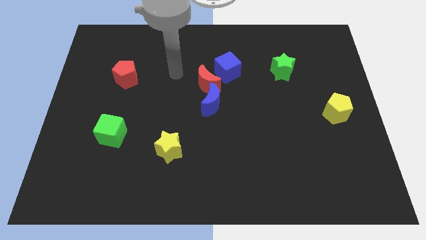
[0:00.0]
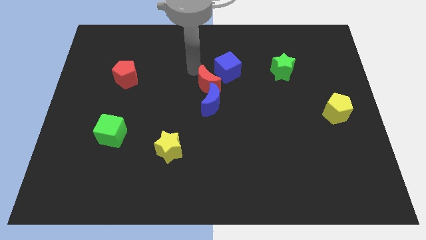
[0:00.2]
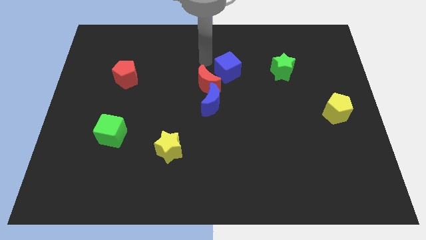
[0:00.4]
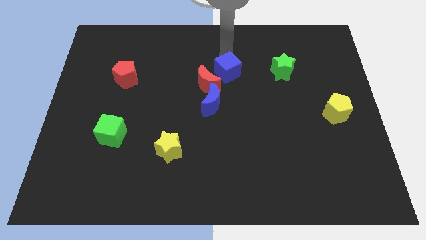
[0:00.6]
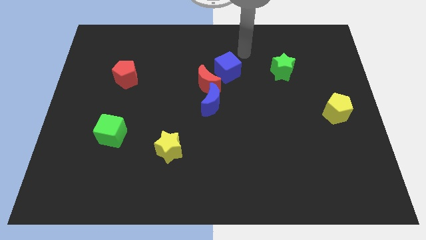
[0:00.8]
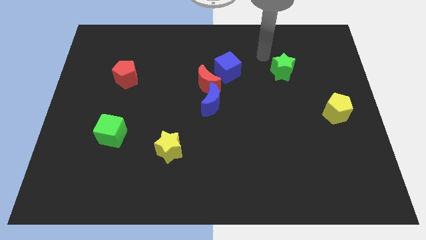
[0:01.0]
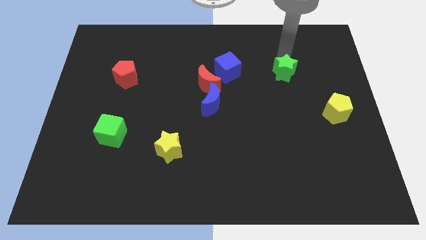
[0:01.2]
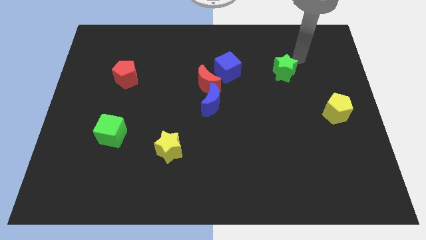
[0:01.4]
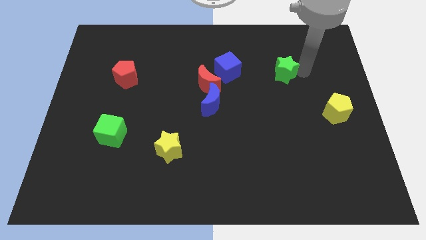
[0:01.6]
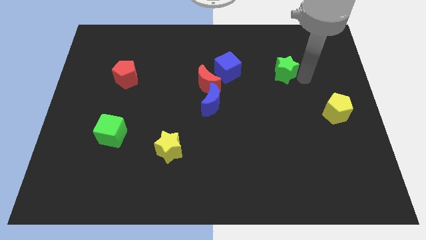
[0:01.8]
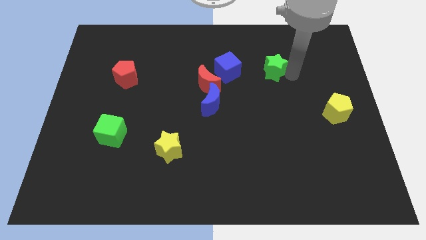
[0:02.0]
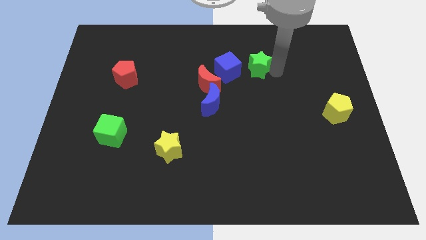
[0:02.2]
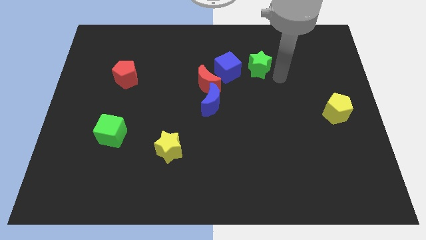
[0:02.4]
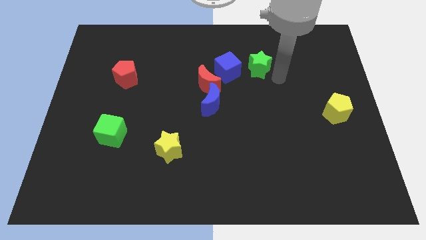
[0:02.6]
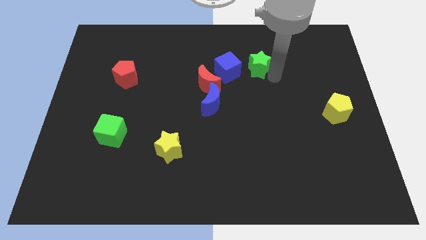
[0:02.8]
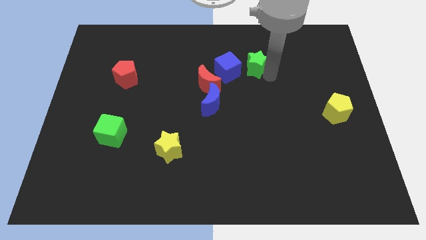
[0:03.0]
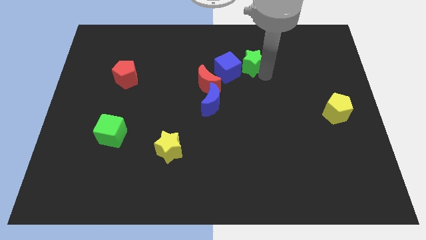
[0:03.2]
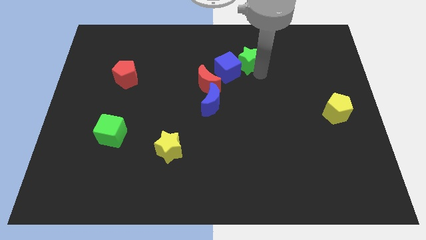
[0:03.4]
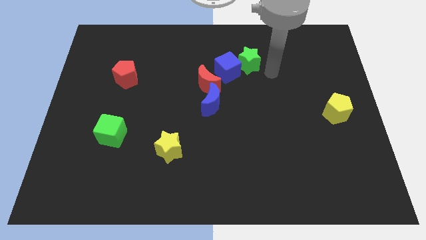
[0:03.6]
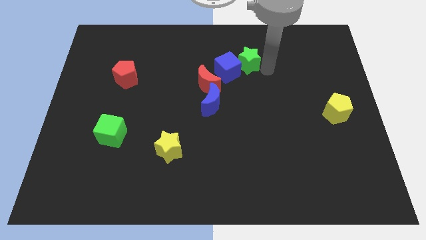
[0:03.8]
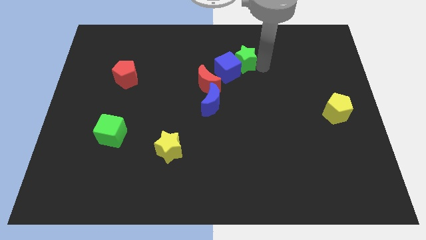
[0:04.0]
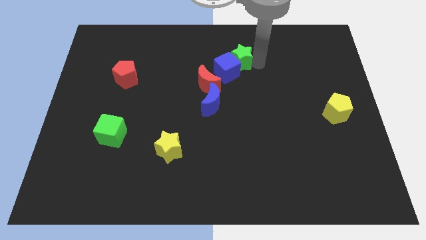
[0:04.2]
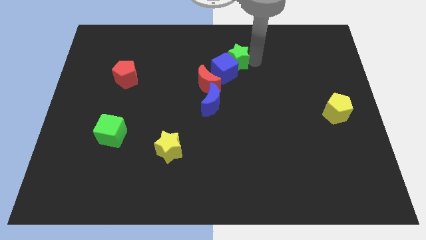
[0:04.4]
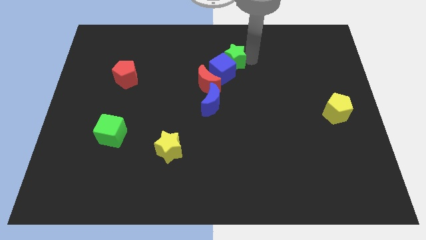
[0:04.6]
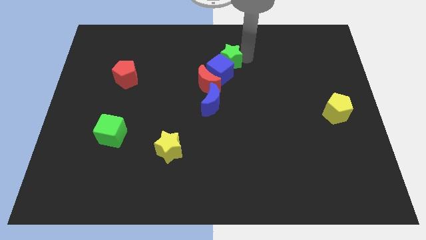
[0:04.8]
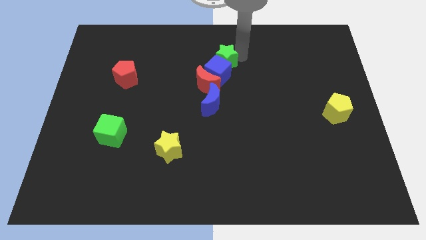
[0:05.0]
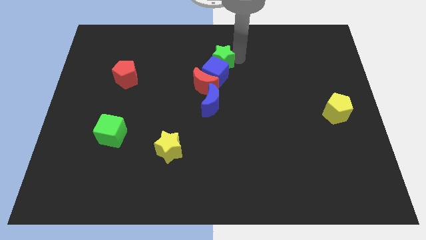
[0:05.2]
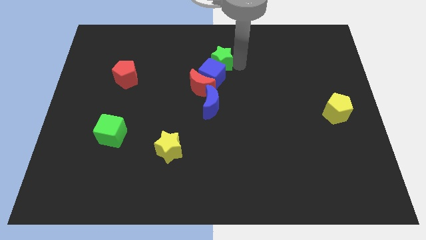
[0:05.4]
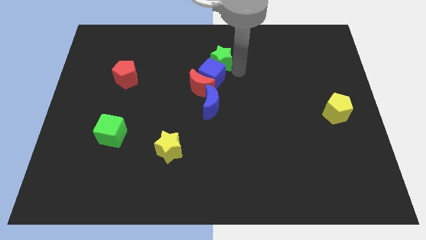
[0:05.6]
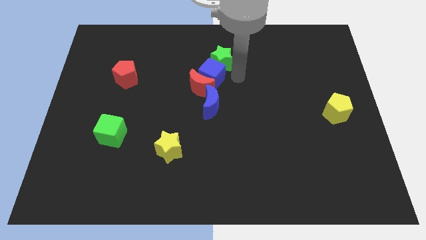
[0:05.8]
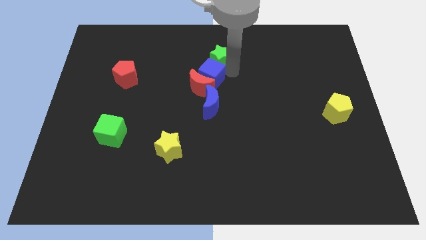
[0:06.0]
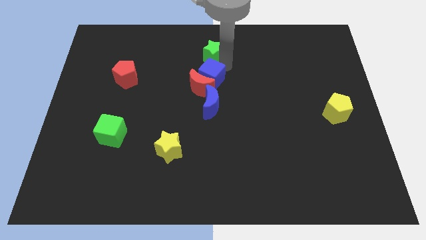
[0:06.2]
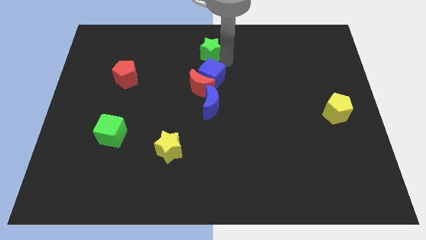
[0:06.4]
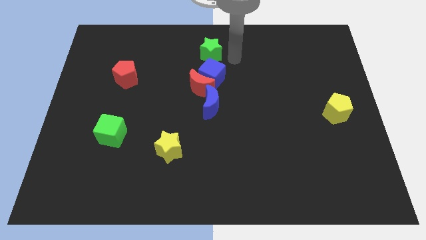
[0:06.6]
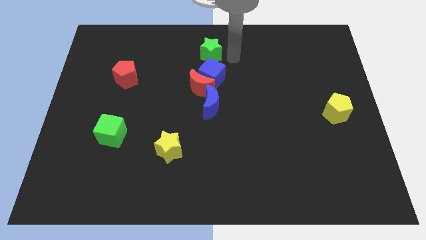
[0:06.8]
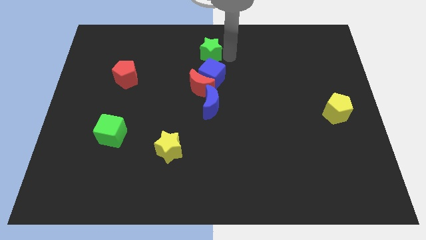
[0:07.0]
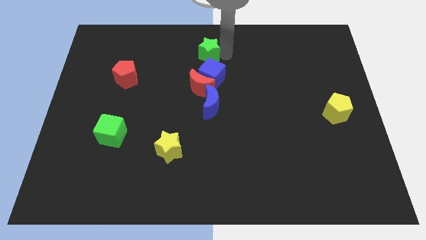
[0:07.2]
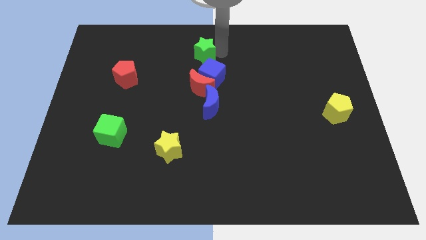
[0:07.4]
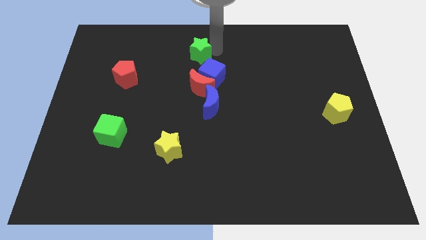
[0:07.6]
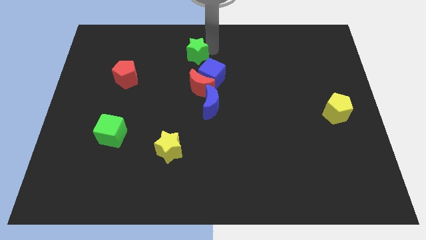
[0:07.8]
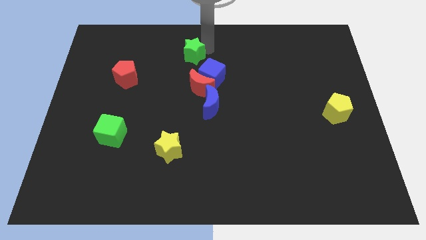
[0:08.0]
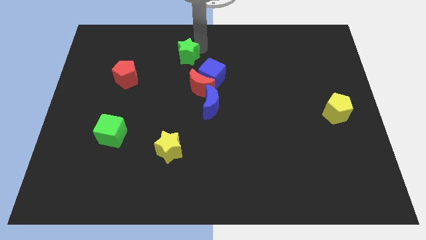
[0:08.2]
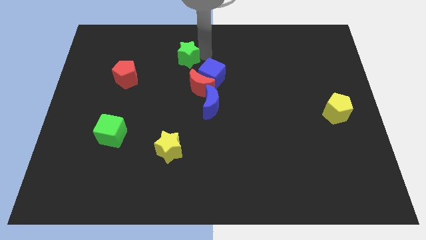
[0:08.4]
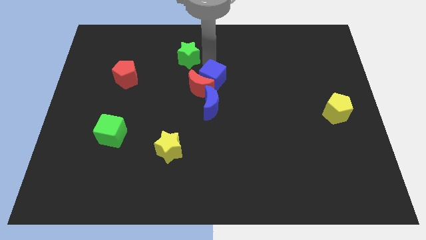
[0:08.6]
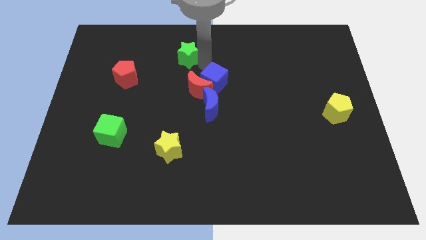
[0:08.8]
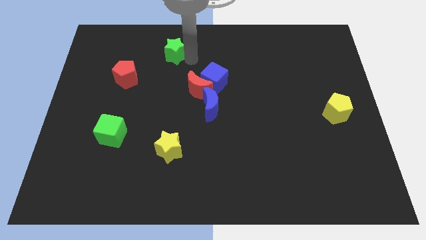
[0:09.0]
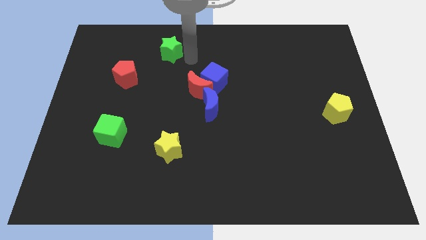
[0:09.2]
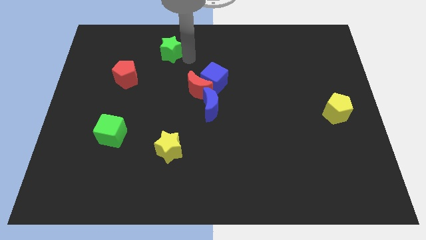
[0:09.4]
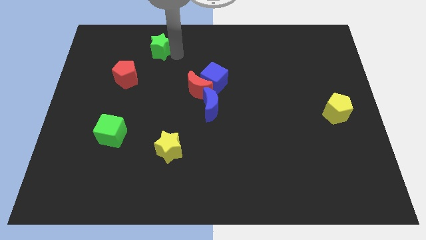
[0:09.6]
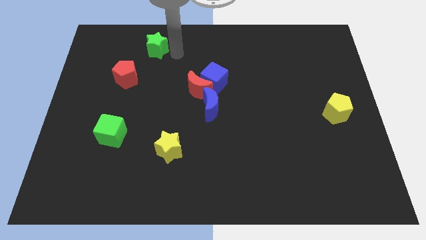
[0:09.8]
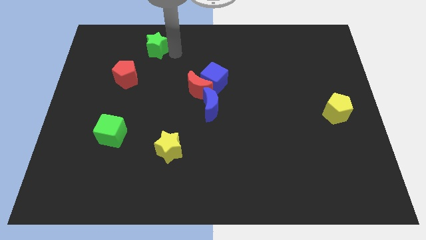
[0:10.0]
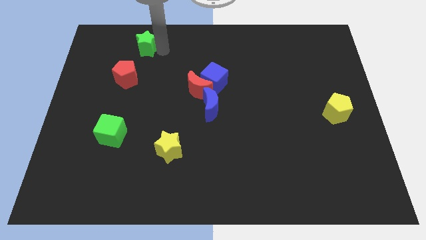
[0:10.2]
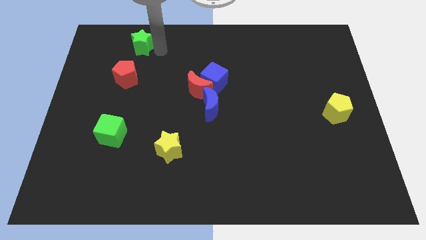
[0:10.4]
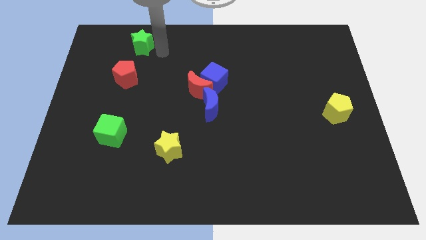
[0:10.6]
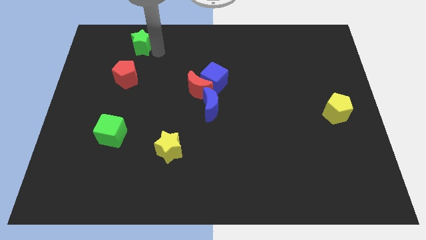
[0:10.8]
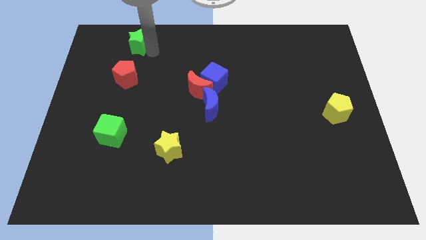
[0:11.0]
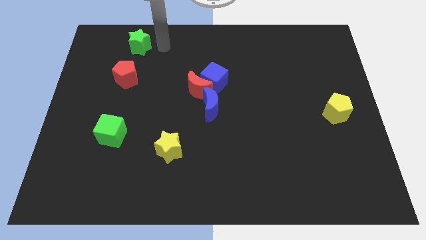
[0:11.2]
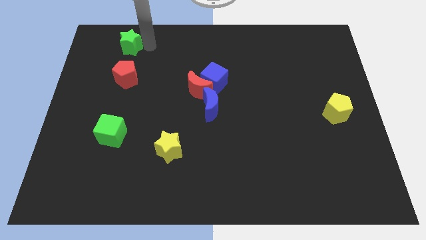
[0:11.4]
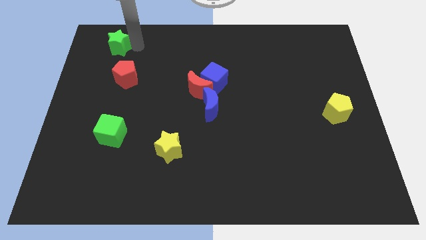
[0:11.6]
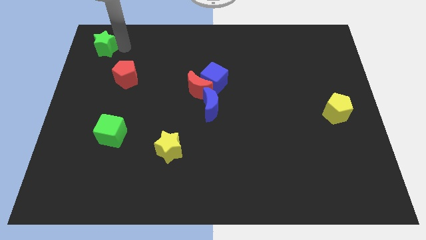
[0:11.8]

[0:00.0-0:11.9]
move the green star to the top left of the board

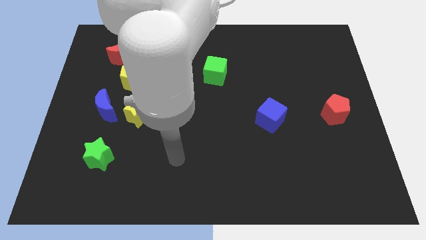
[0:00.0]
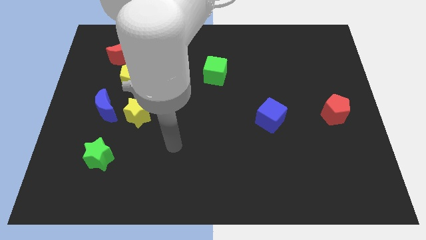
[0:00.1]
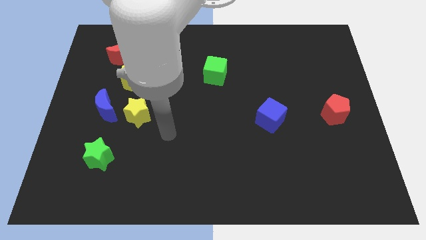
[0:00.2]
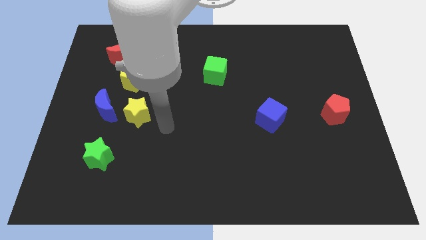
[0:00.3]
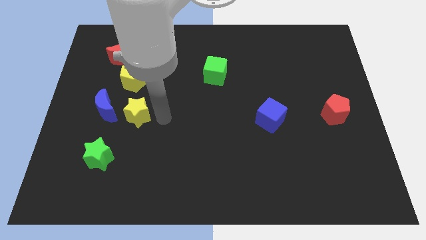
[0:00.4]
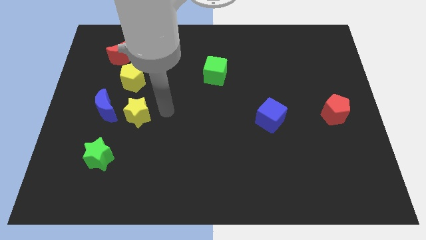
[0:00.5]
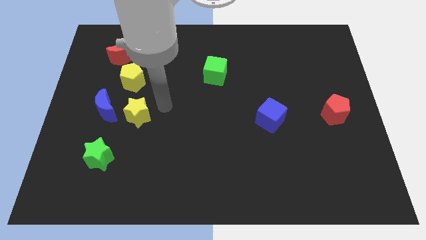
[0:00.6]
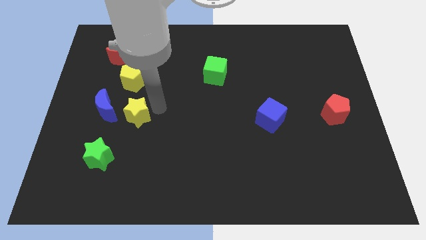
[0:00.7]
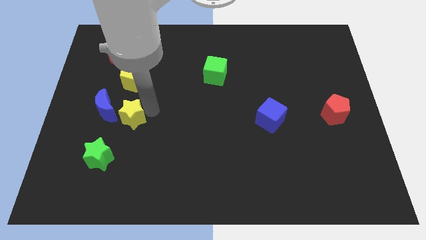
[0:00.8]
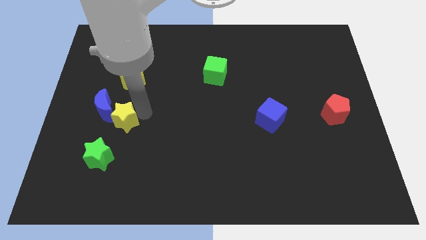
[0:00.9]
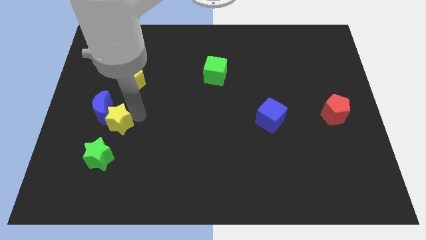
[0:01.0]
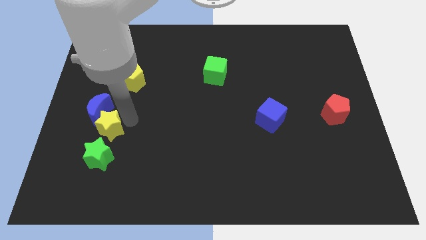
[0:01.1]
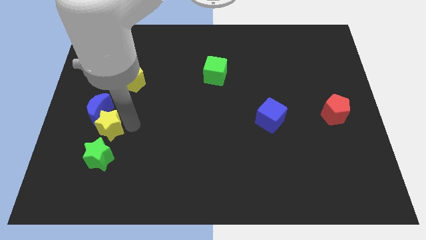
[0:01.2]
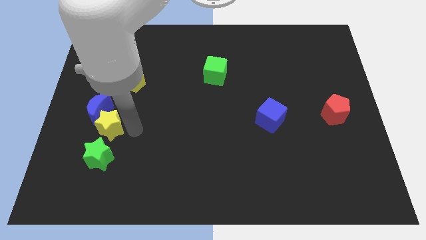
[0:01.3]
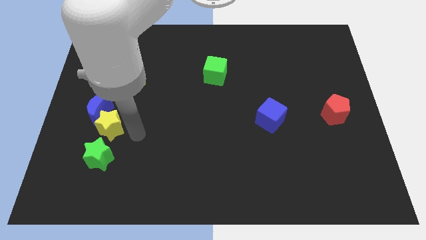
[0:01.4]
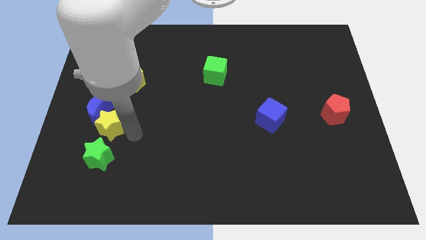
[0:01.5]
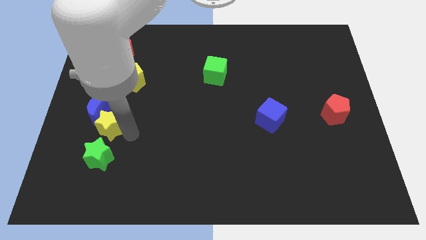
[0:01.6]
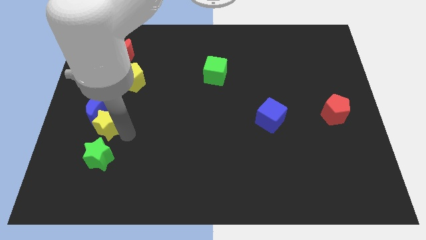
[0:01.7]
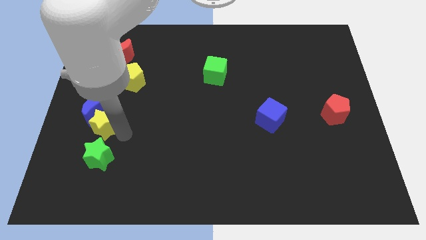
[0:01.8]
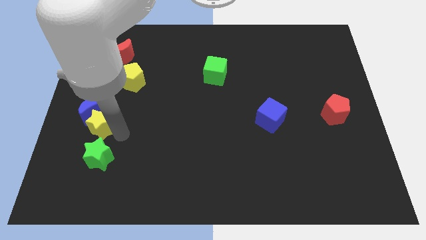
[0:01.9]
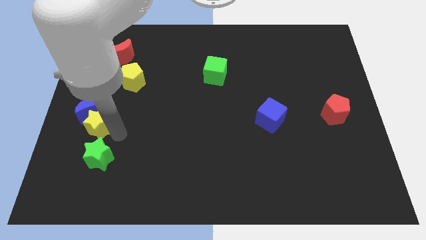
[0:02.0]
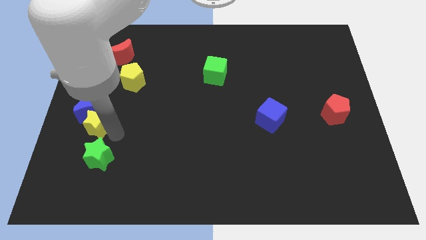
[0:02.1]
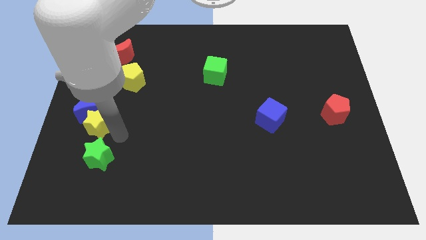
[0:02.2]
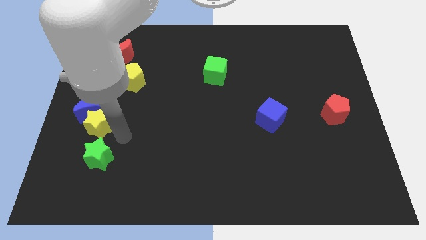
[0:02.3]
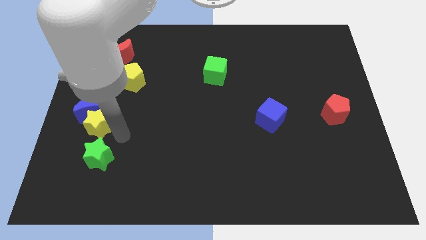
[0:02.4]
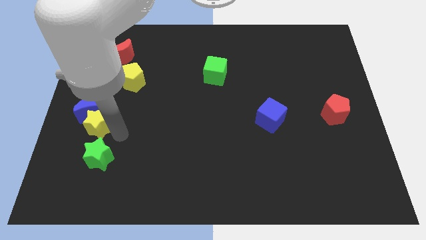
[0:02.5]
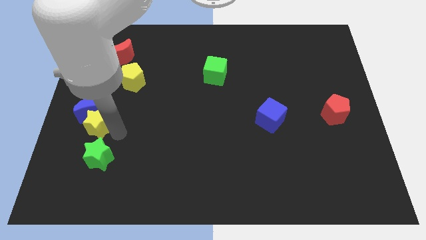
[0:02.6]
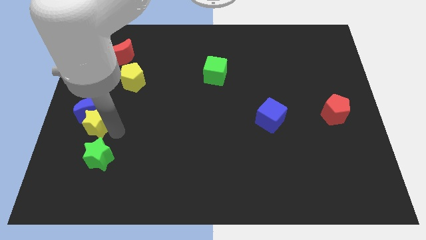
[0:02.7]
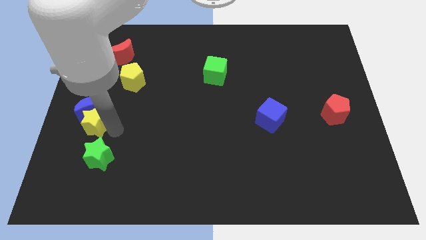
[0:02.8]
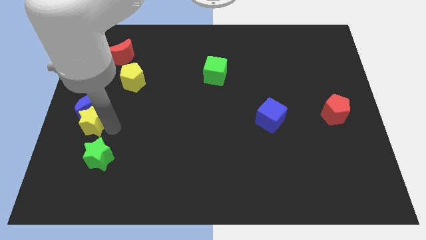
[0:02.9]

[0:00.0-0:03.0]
slide the yellow star to the left side of the board
